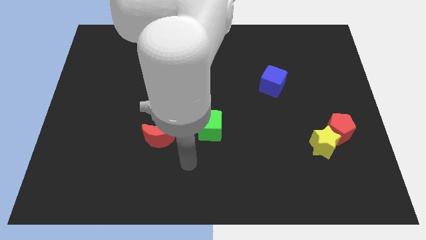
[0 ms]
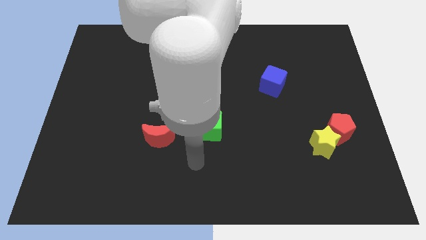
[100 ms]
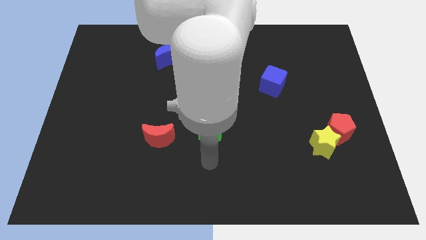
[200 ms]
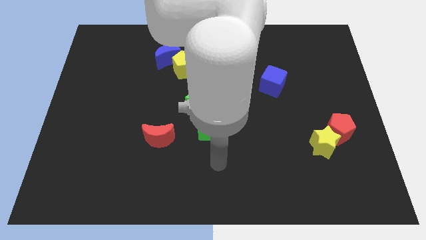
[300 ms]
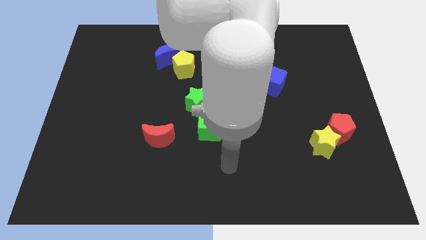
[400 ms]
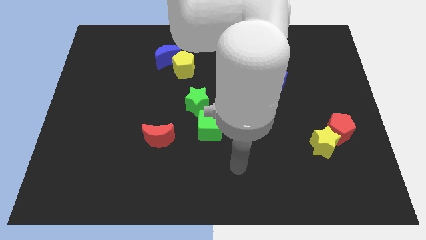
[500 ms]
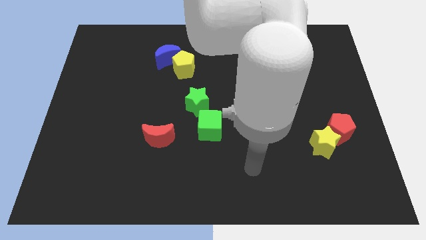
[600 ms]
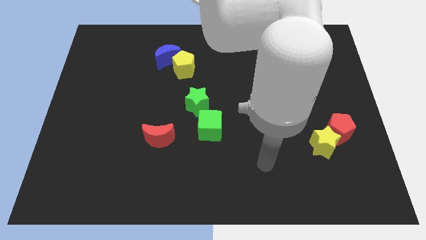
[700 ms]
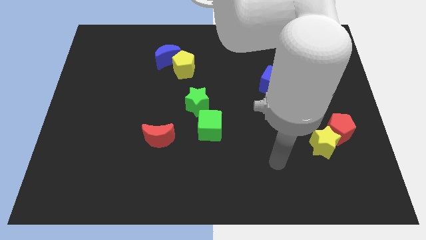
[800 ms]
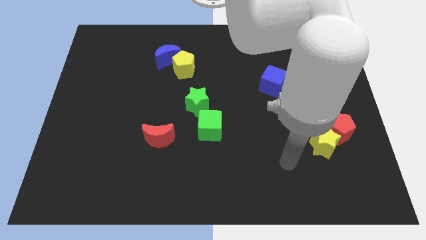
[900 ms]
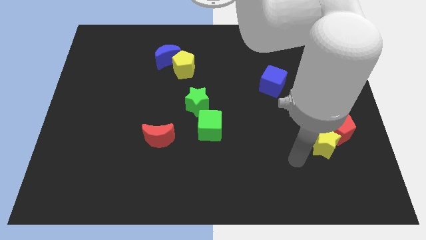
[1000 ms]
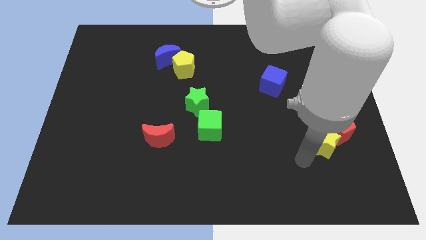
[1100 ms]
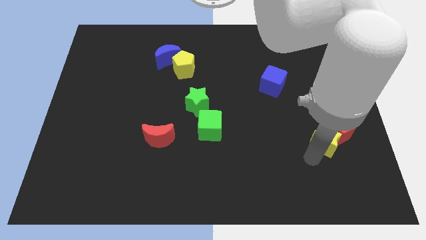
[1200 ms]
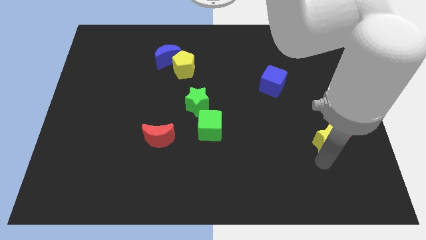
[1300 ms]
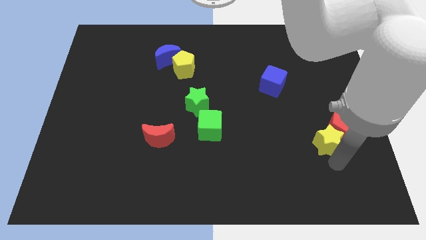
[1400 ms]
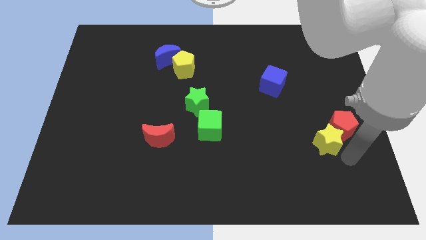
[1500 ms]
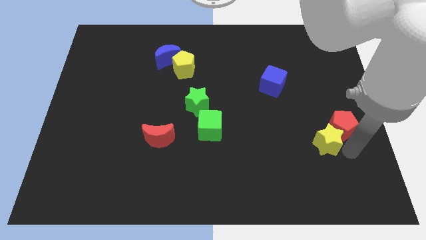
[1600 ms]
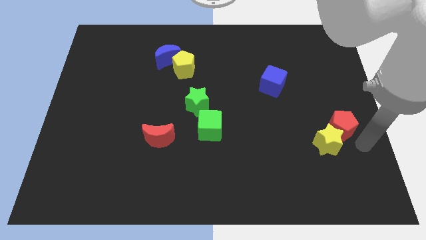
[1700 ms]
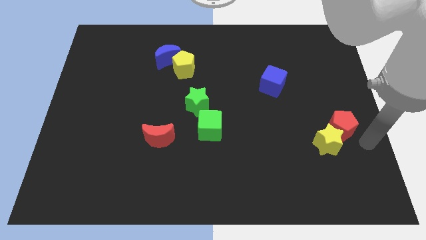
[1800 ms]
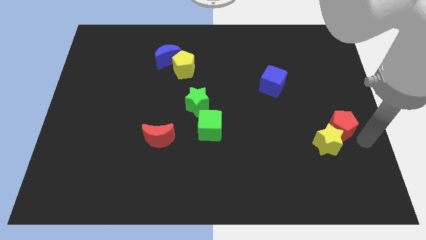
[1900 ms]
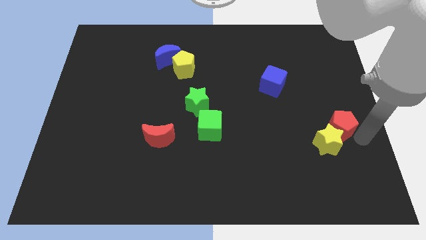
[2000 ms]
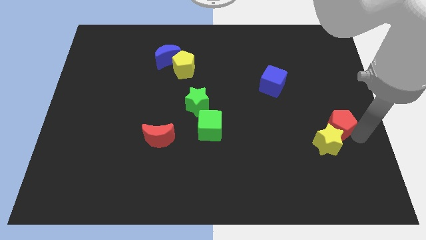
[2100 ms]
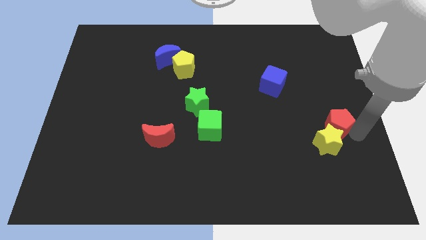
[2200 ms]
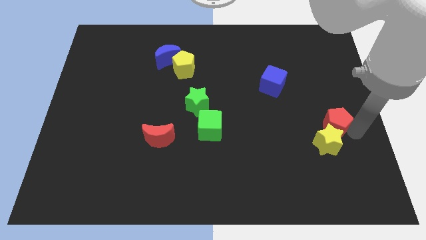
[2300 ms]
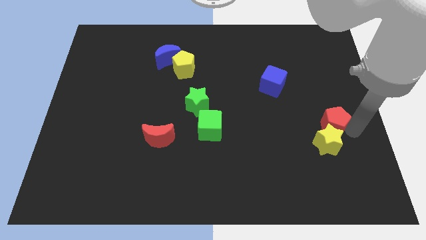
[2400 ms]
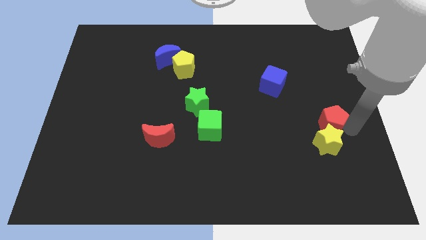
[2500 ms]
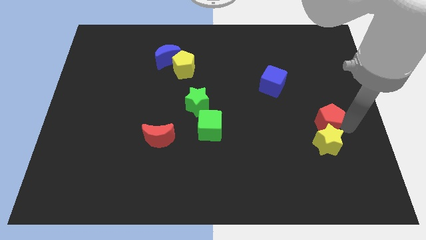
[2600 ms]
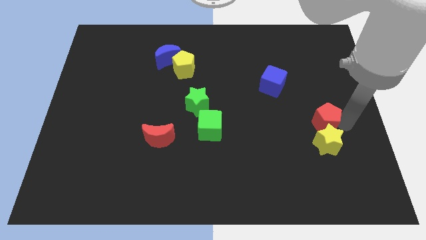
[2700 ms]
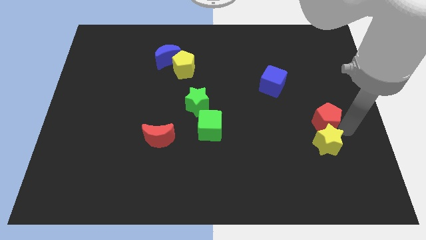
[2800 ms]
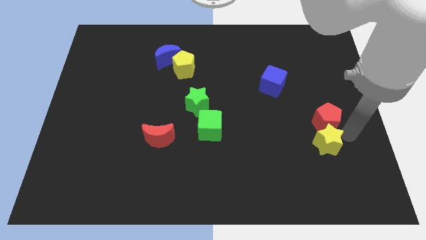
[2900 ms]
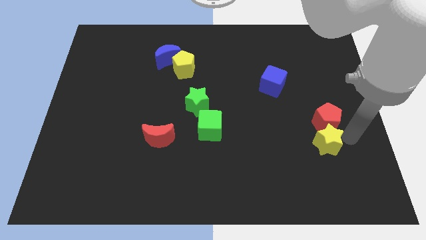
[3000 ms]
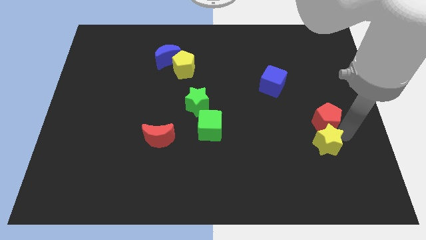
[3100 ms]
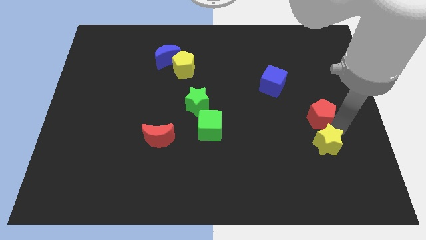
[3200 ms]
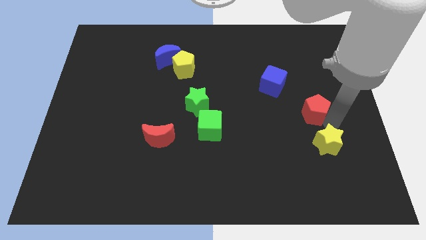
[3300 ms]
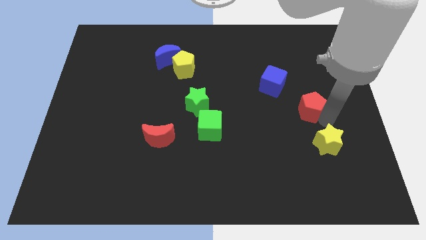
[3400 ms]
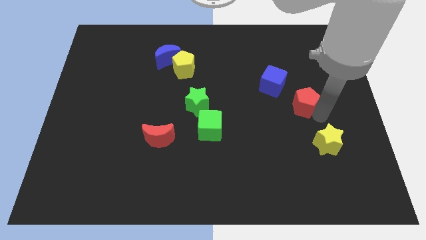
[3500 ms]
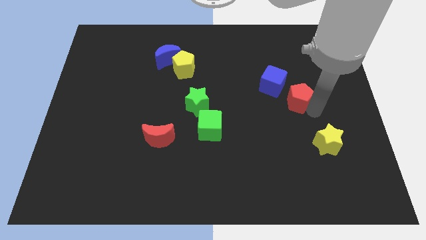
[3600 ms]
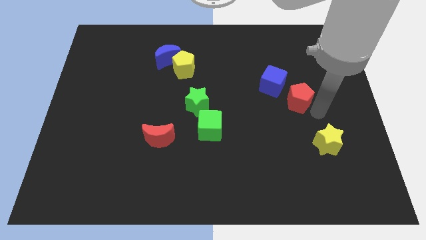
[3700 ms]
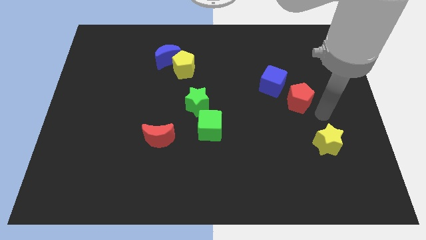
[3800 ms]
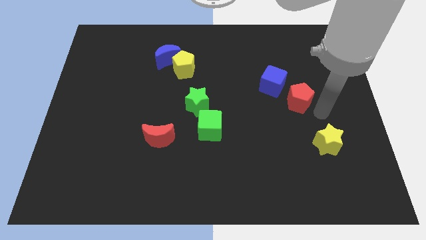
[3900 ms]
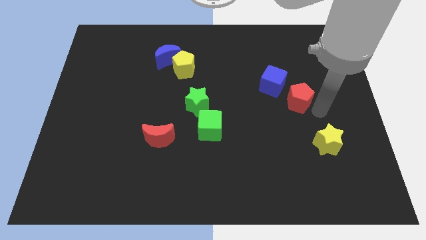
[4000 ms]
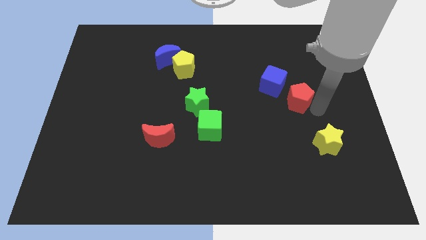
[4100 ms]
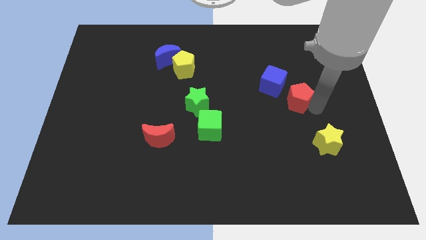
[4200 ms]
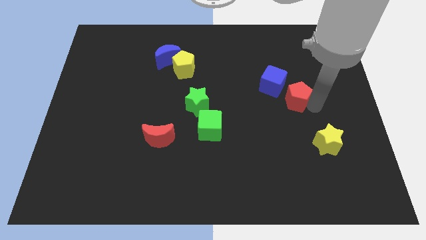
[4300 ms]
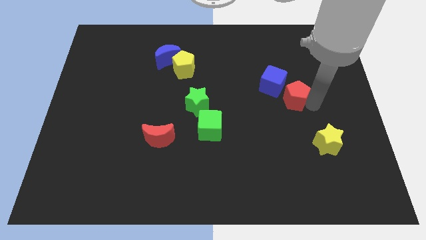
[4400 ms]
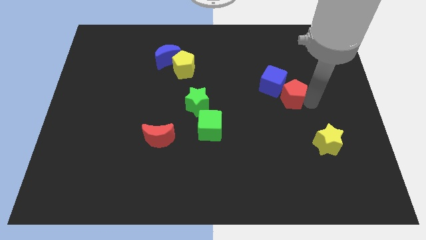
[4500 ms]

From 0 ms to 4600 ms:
push the red pentagon next to the blue cube

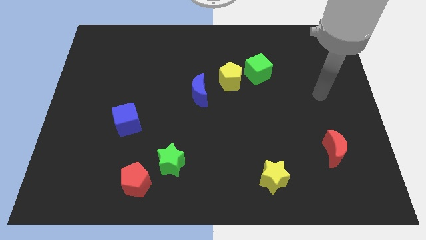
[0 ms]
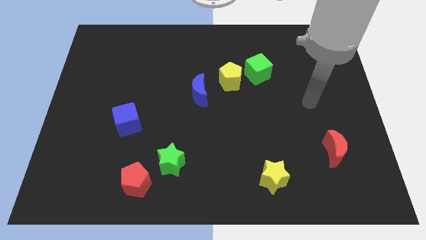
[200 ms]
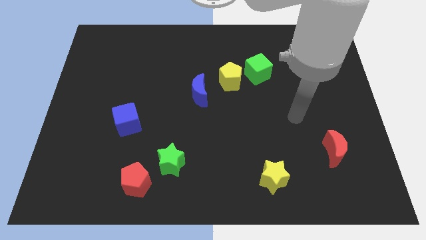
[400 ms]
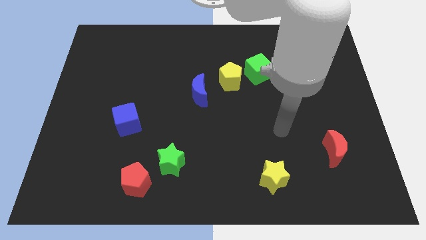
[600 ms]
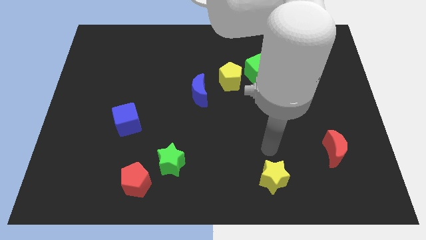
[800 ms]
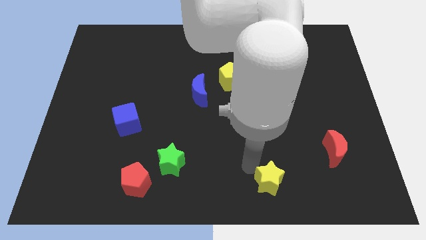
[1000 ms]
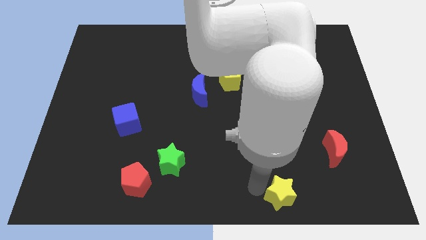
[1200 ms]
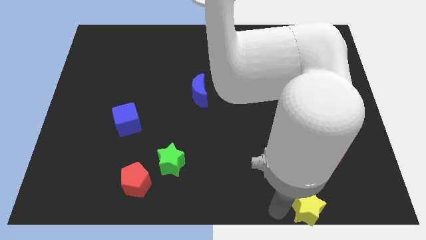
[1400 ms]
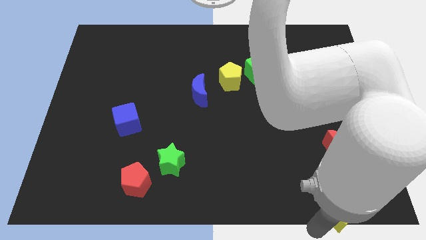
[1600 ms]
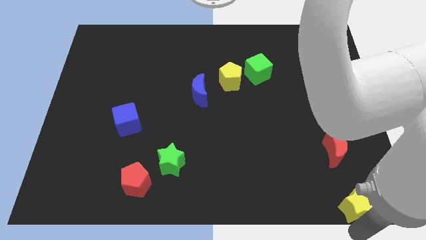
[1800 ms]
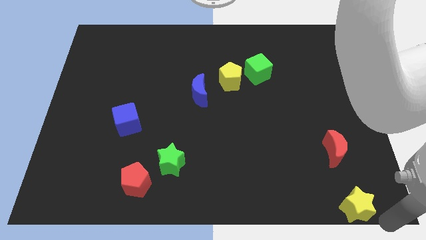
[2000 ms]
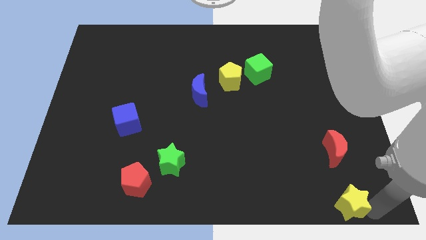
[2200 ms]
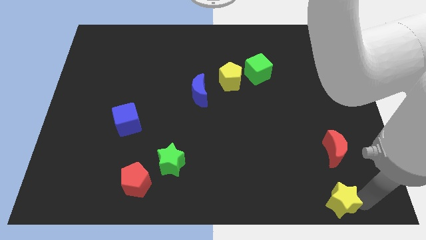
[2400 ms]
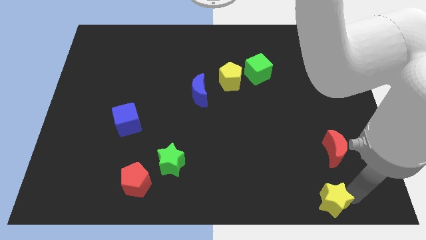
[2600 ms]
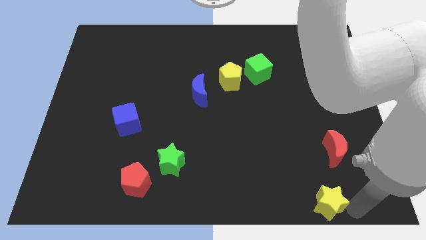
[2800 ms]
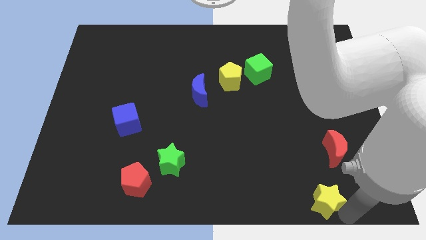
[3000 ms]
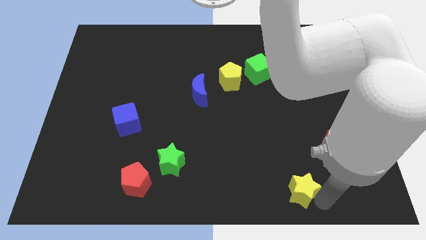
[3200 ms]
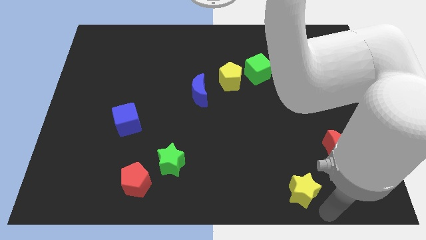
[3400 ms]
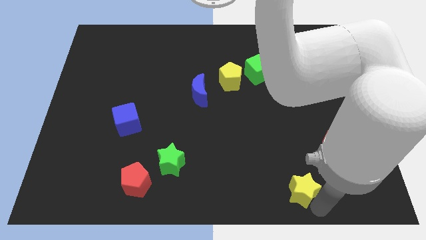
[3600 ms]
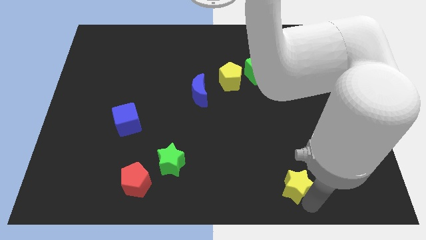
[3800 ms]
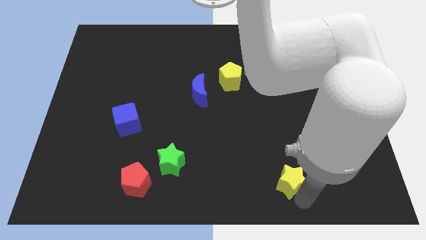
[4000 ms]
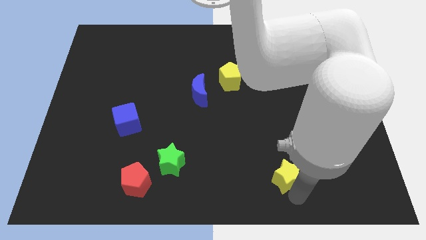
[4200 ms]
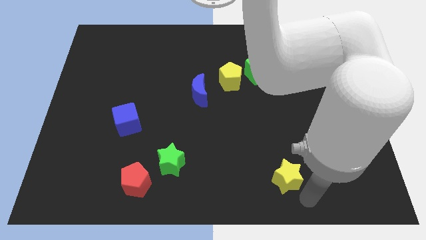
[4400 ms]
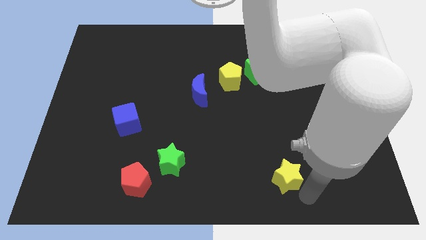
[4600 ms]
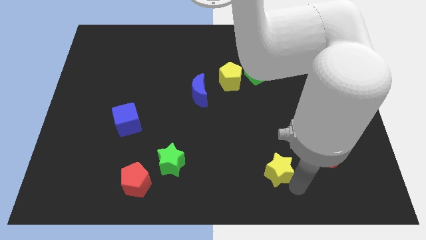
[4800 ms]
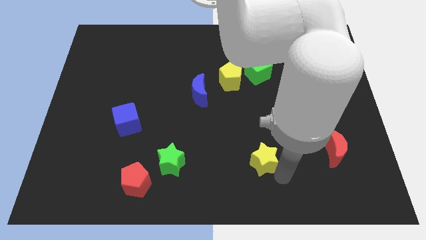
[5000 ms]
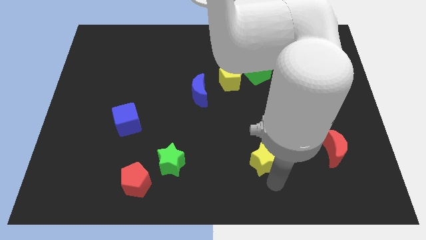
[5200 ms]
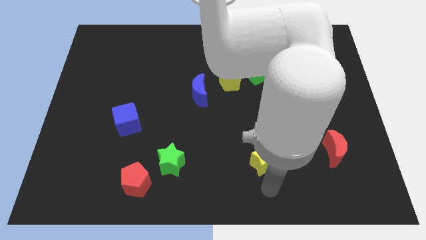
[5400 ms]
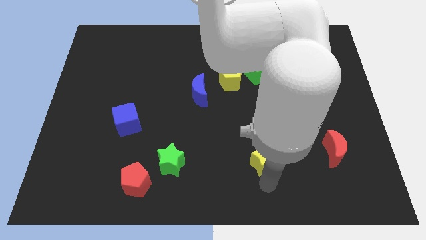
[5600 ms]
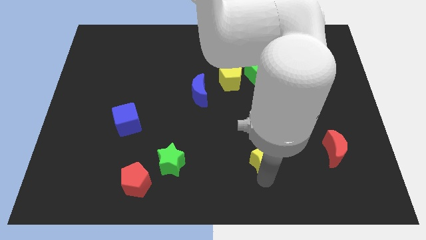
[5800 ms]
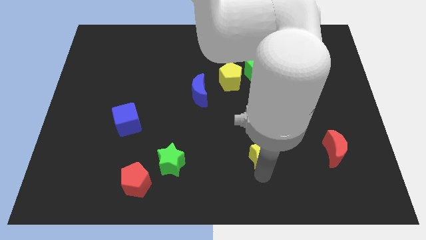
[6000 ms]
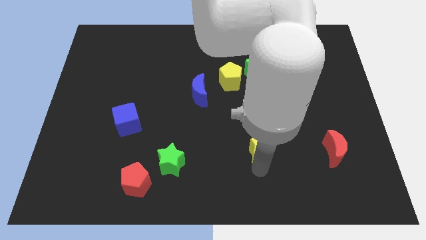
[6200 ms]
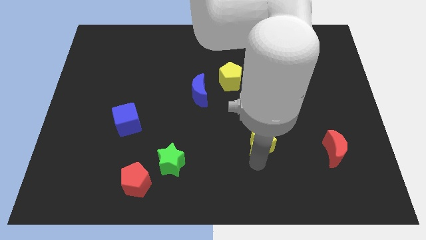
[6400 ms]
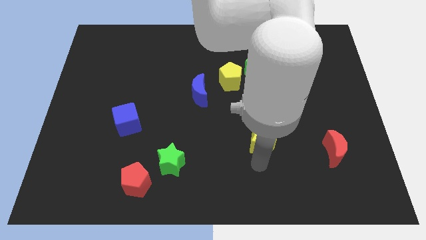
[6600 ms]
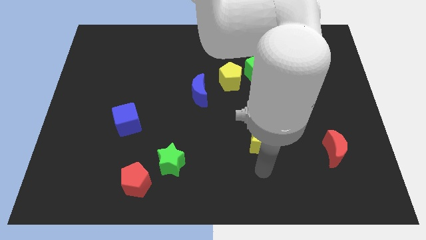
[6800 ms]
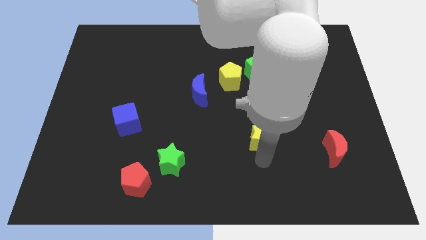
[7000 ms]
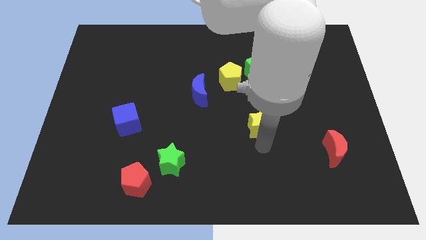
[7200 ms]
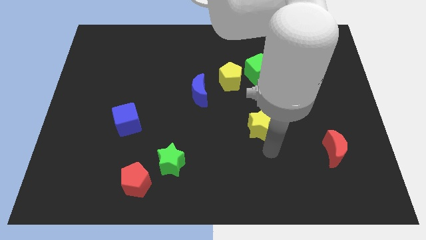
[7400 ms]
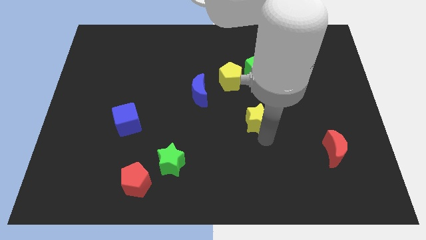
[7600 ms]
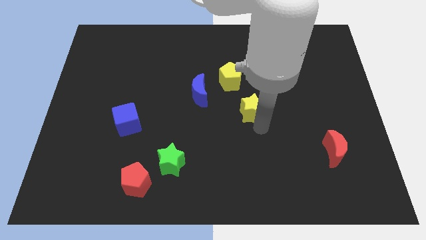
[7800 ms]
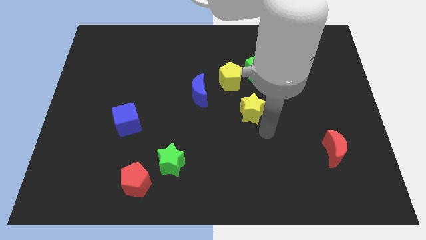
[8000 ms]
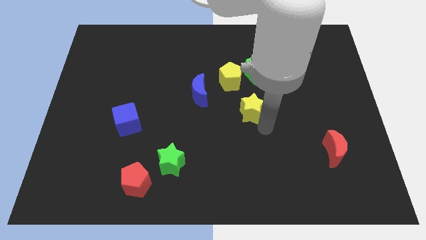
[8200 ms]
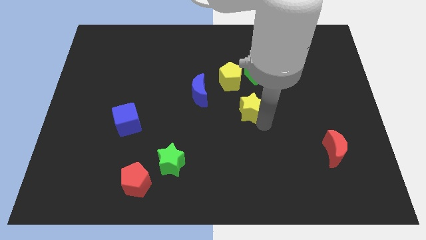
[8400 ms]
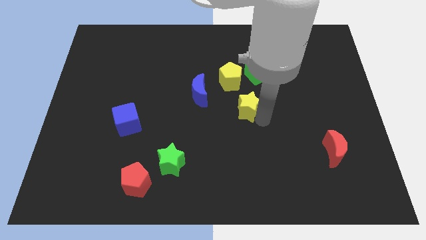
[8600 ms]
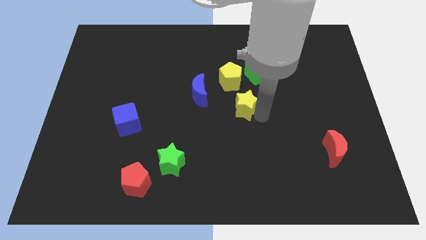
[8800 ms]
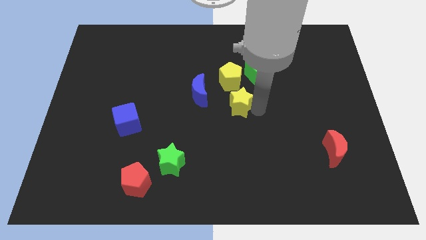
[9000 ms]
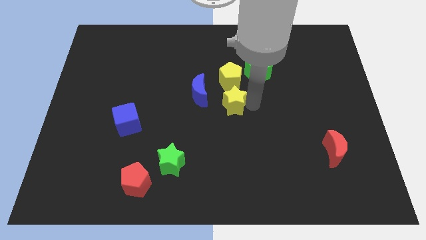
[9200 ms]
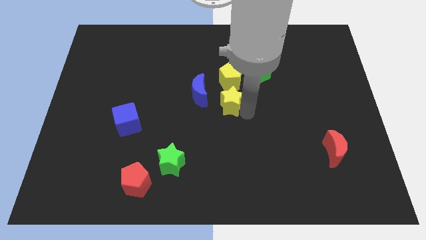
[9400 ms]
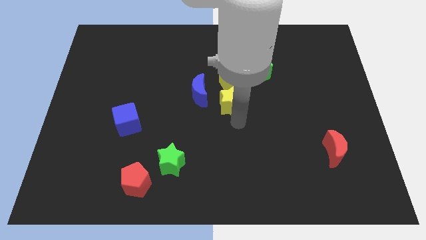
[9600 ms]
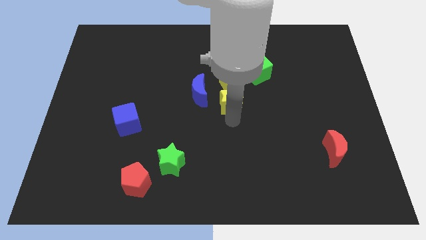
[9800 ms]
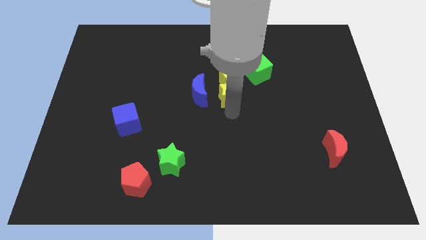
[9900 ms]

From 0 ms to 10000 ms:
put the yellow star close to the yellow pentagon
